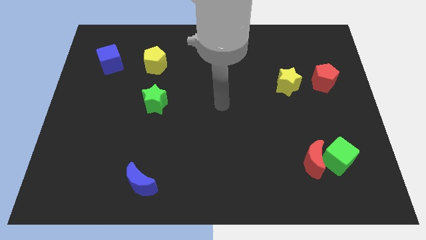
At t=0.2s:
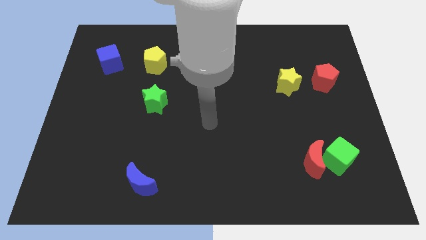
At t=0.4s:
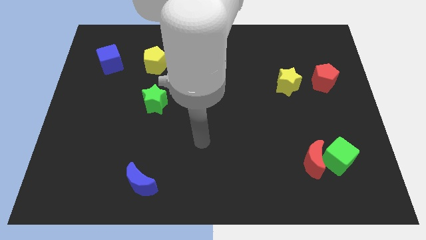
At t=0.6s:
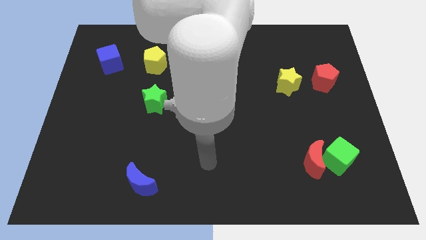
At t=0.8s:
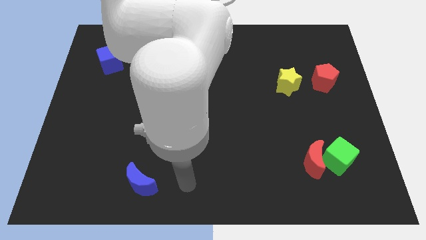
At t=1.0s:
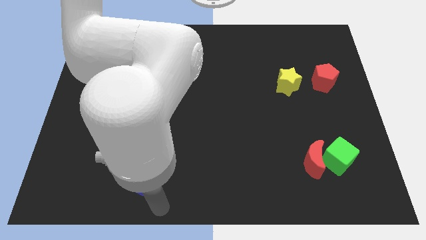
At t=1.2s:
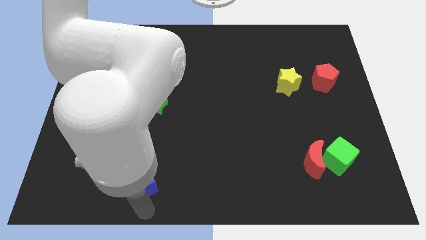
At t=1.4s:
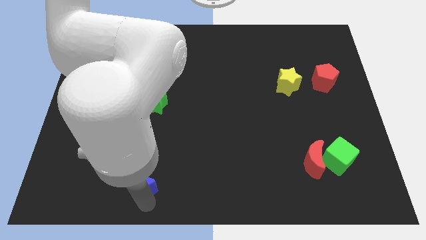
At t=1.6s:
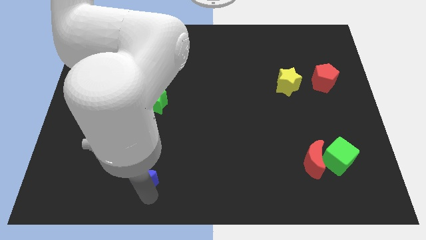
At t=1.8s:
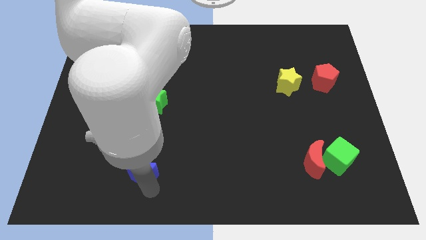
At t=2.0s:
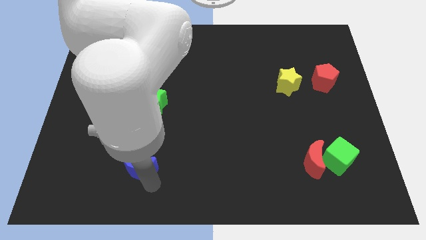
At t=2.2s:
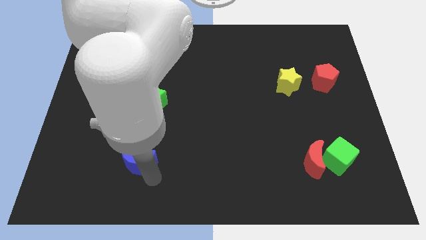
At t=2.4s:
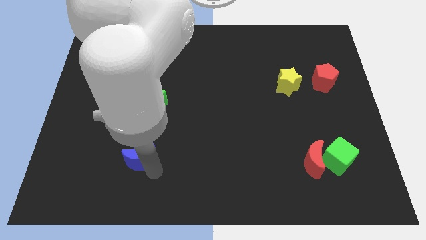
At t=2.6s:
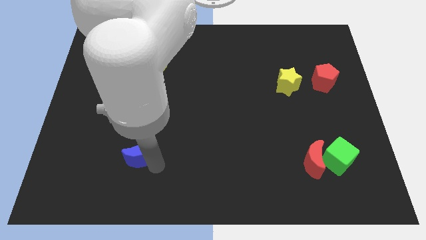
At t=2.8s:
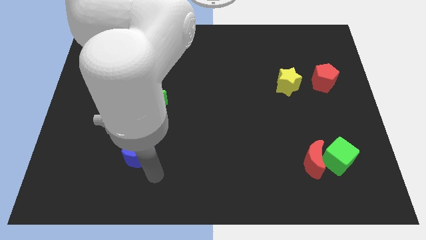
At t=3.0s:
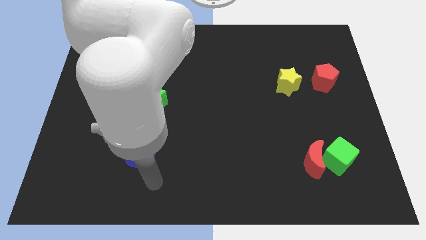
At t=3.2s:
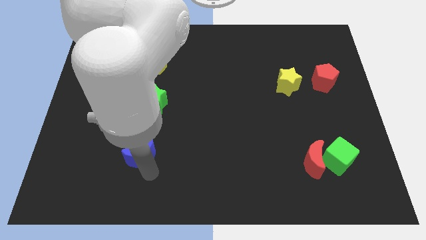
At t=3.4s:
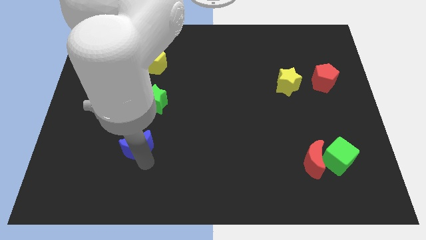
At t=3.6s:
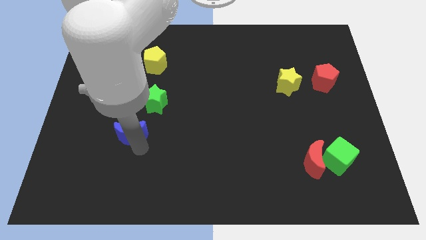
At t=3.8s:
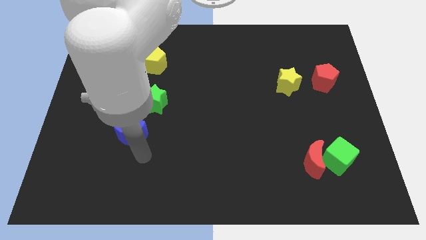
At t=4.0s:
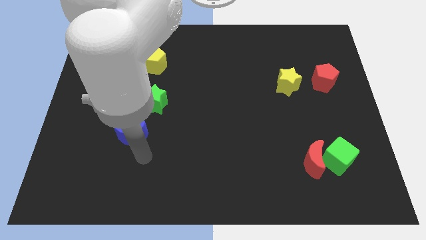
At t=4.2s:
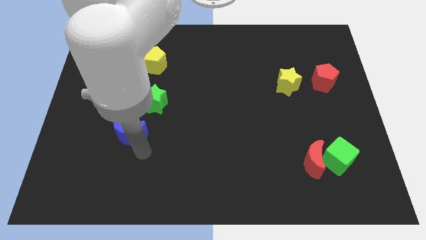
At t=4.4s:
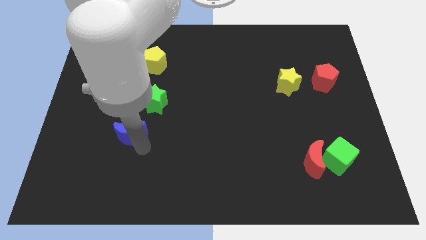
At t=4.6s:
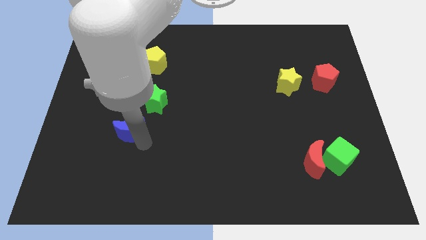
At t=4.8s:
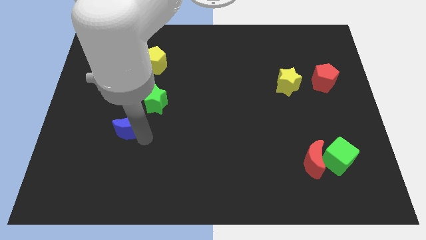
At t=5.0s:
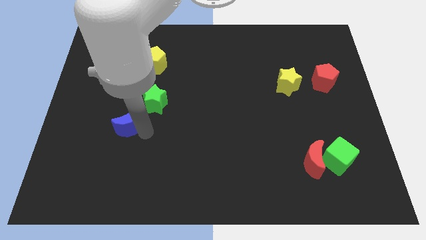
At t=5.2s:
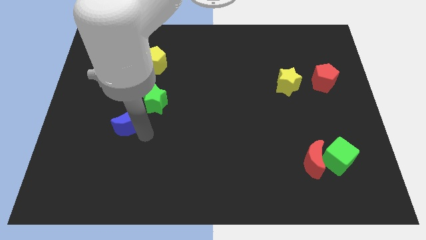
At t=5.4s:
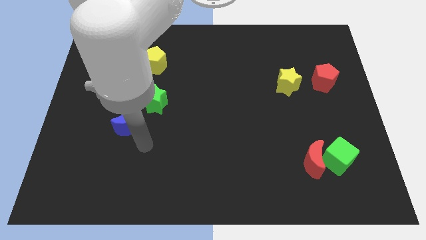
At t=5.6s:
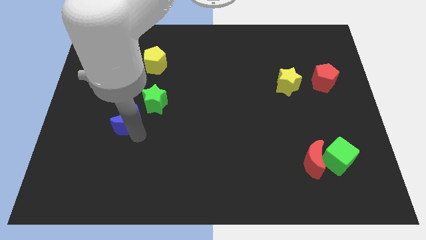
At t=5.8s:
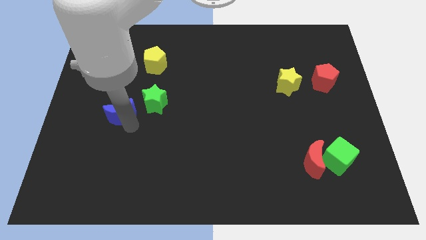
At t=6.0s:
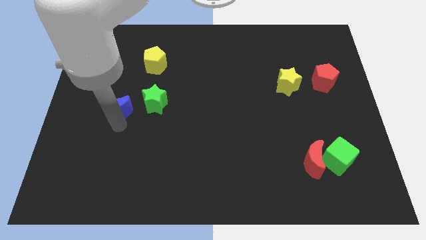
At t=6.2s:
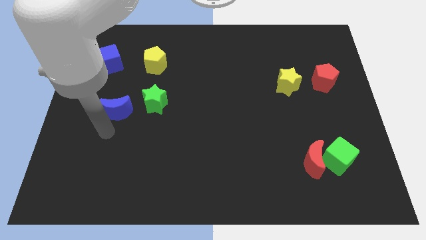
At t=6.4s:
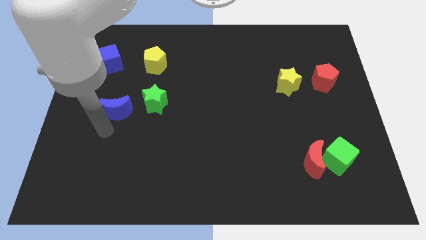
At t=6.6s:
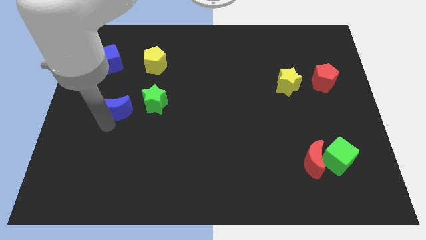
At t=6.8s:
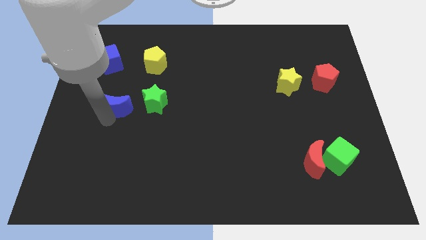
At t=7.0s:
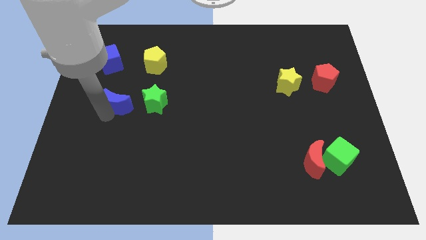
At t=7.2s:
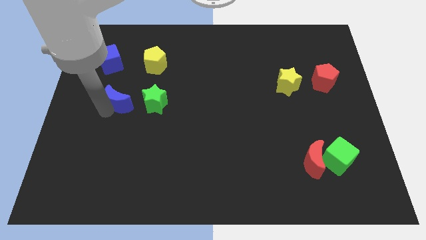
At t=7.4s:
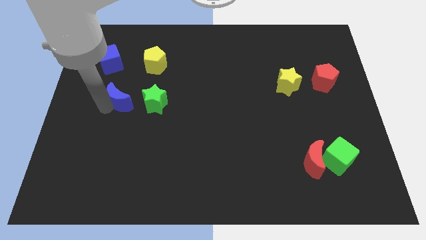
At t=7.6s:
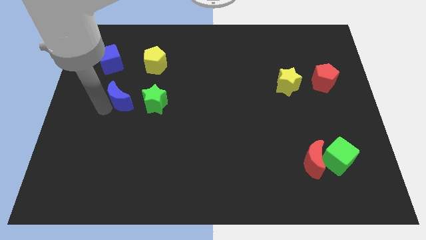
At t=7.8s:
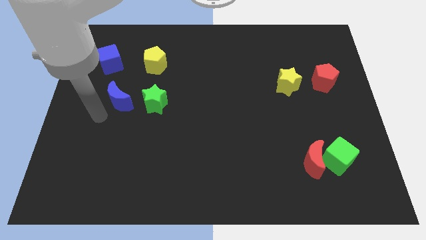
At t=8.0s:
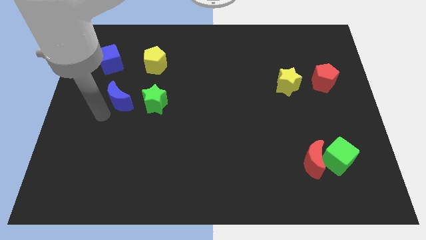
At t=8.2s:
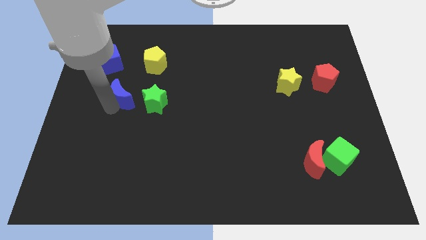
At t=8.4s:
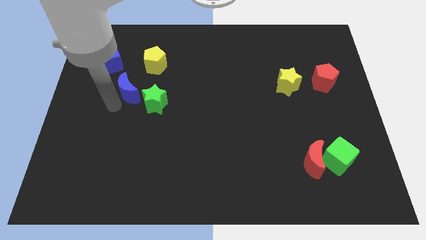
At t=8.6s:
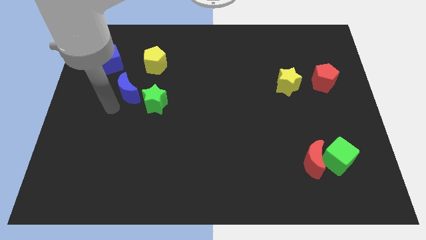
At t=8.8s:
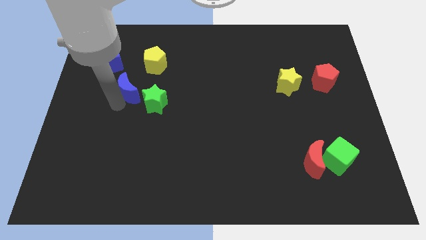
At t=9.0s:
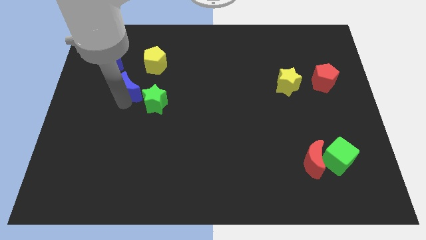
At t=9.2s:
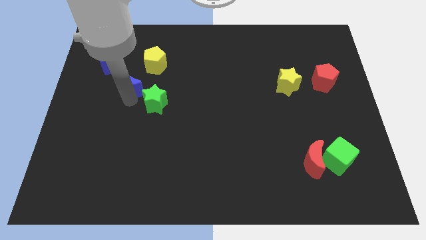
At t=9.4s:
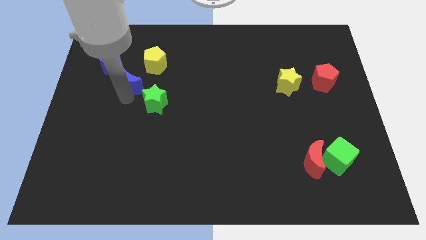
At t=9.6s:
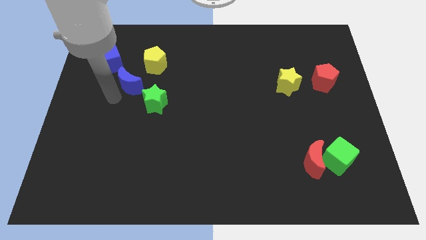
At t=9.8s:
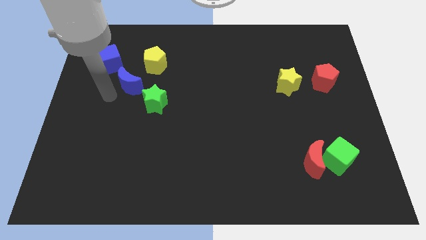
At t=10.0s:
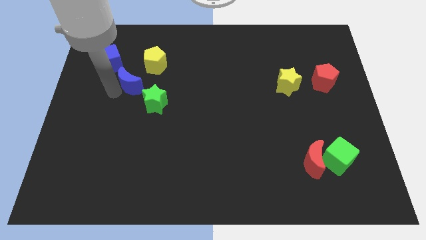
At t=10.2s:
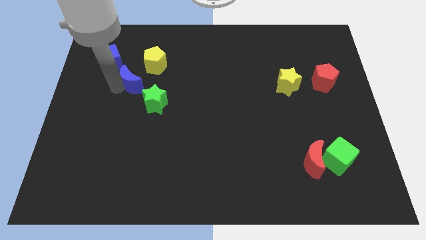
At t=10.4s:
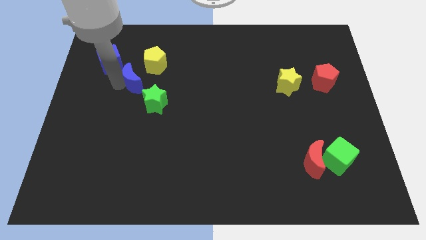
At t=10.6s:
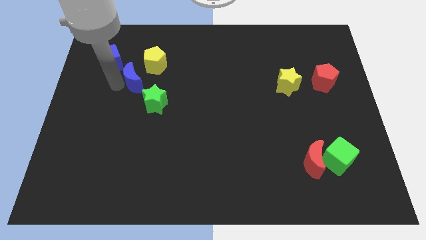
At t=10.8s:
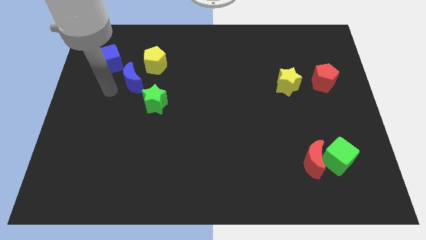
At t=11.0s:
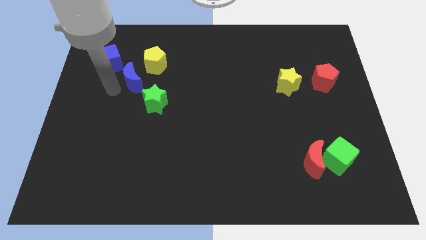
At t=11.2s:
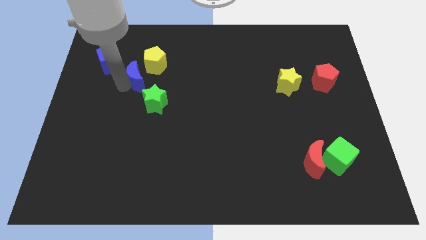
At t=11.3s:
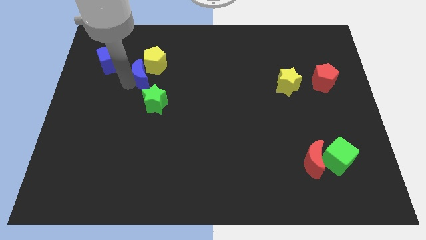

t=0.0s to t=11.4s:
slide the blue moon close to the yellow pentagon

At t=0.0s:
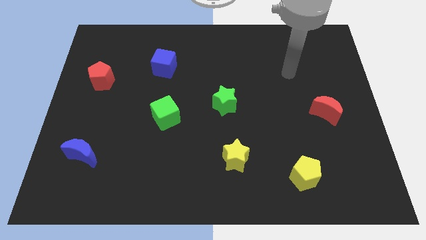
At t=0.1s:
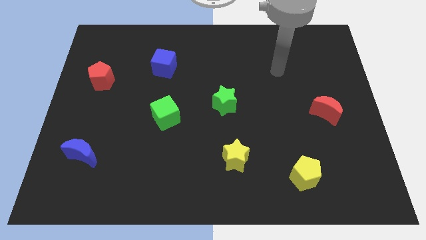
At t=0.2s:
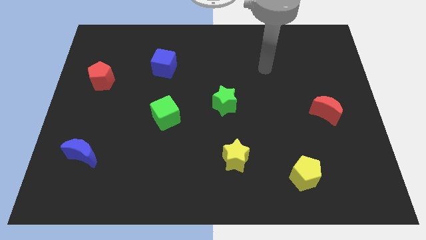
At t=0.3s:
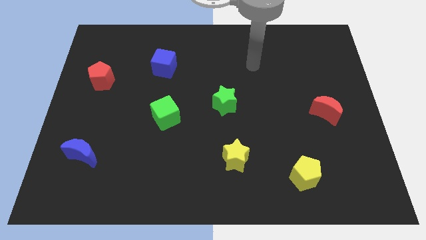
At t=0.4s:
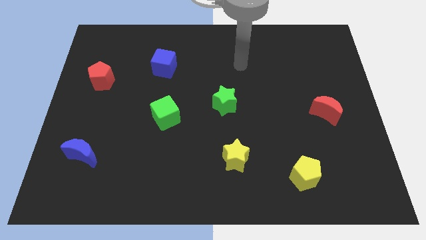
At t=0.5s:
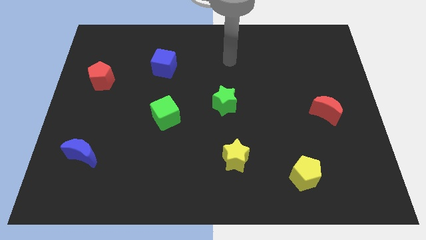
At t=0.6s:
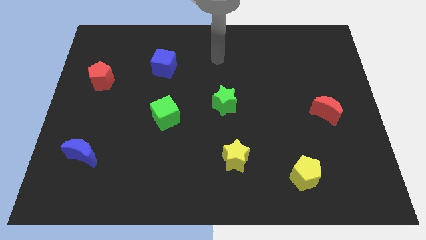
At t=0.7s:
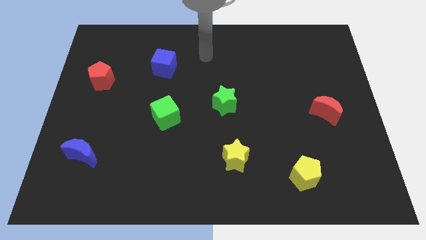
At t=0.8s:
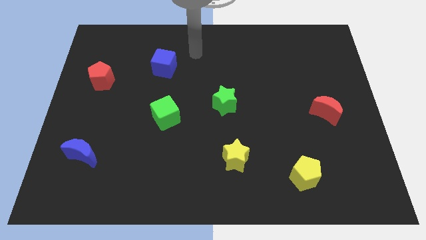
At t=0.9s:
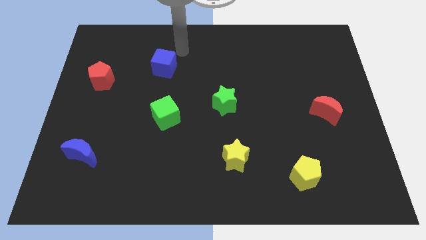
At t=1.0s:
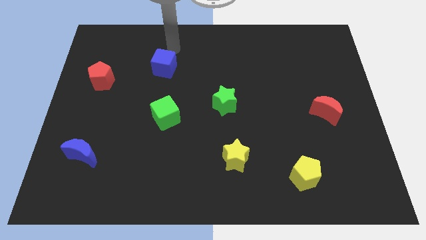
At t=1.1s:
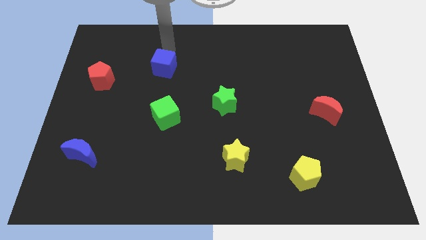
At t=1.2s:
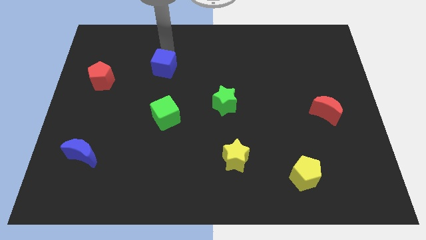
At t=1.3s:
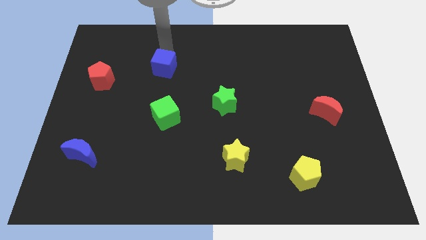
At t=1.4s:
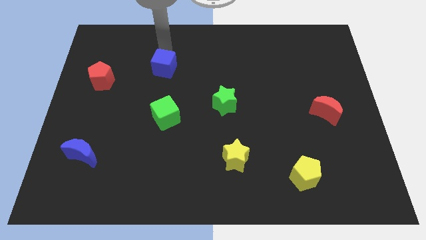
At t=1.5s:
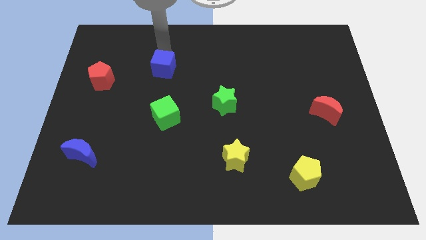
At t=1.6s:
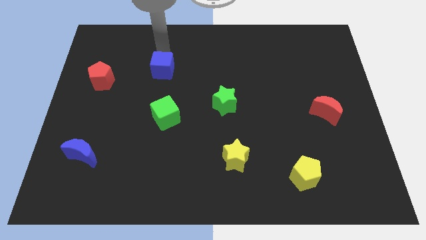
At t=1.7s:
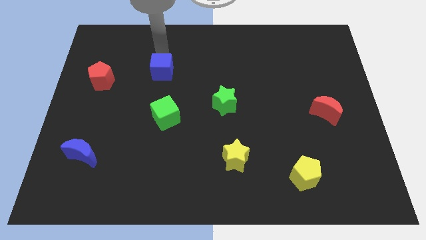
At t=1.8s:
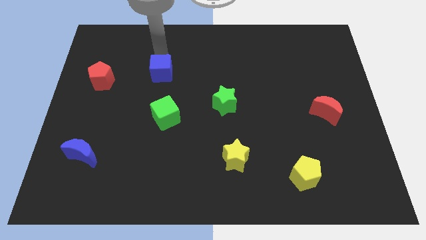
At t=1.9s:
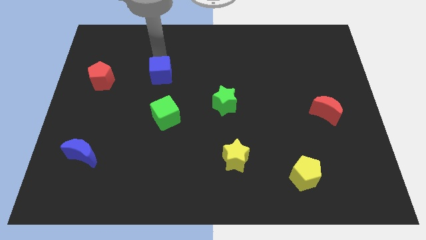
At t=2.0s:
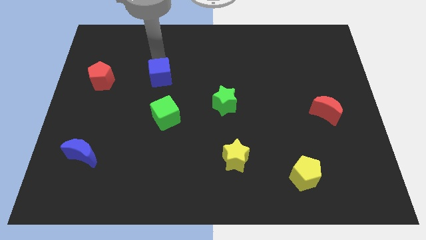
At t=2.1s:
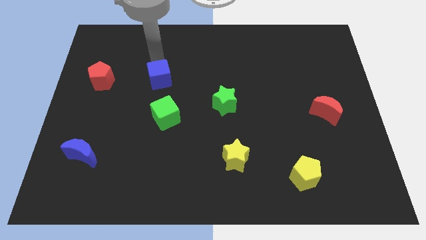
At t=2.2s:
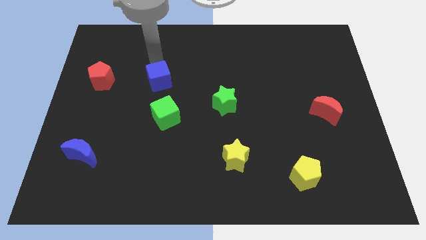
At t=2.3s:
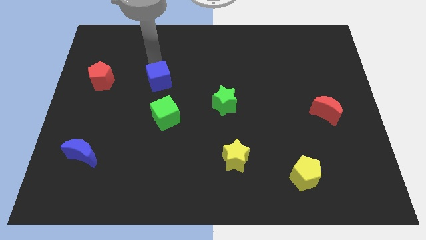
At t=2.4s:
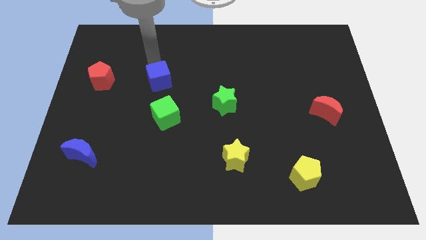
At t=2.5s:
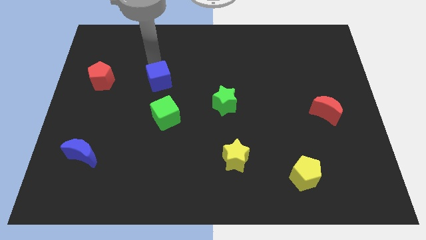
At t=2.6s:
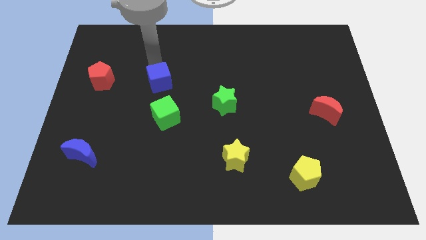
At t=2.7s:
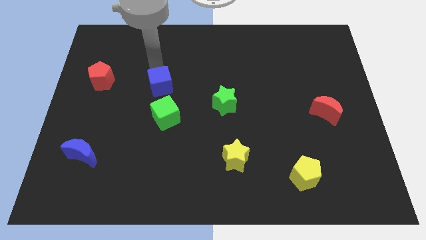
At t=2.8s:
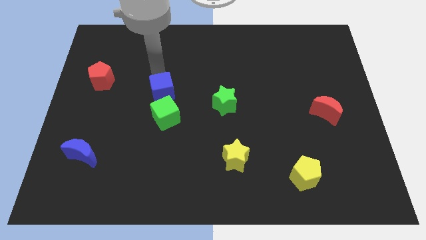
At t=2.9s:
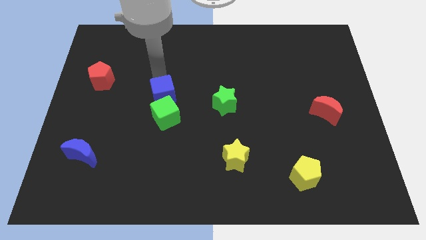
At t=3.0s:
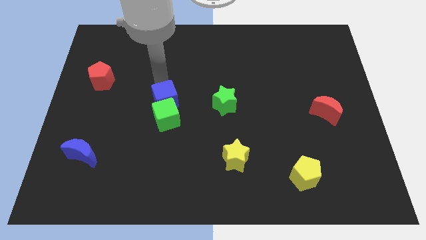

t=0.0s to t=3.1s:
put the blue cube towards the green cube
